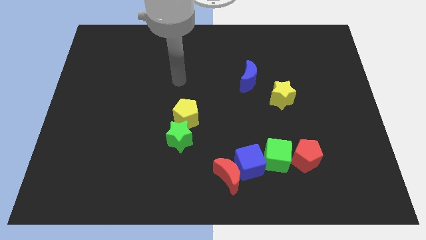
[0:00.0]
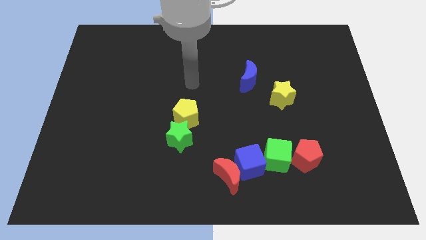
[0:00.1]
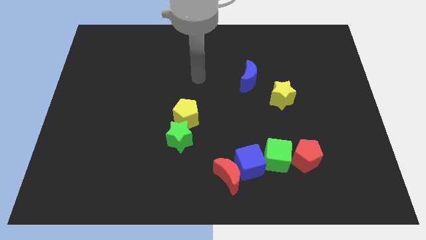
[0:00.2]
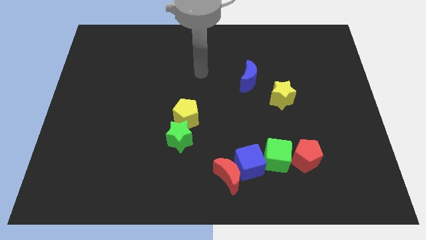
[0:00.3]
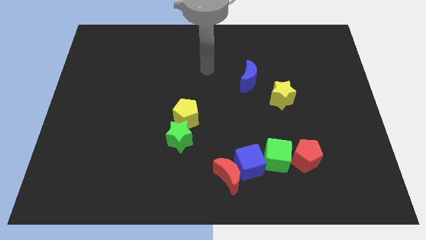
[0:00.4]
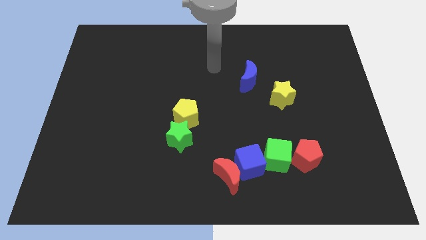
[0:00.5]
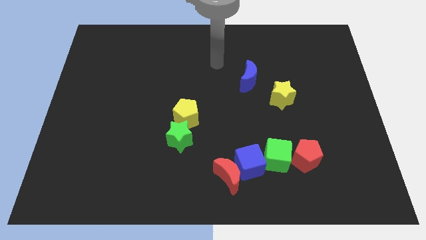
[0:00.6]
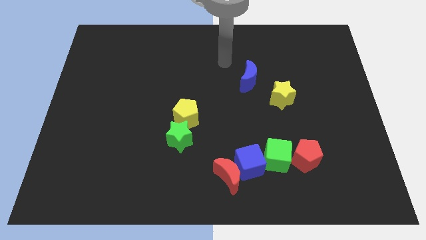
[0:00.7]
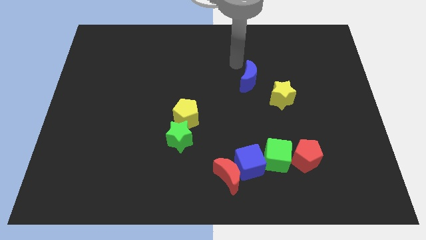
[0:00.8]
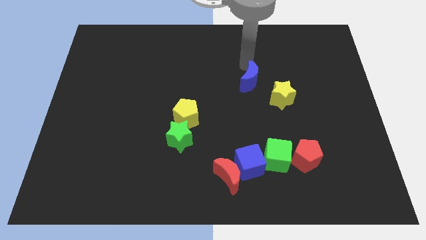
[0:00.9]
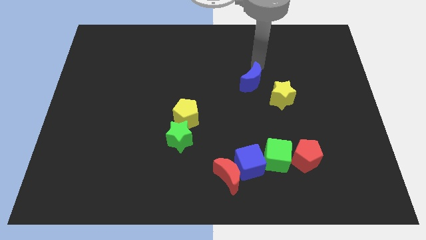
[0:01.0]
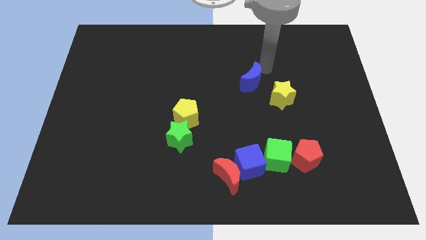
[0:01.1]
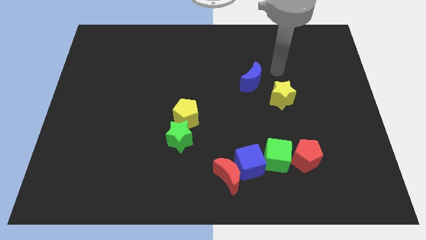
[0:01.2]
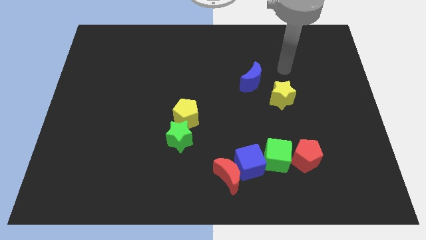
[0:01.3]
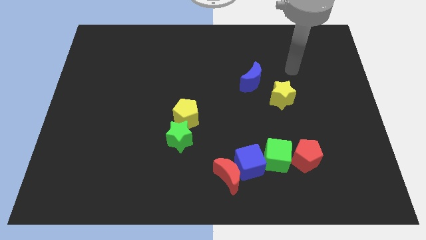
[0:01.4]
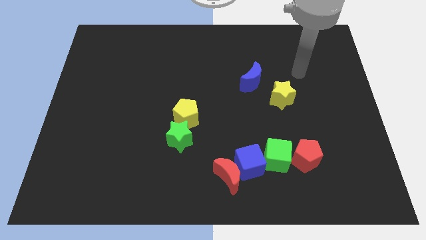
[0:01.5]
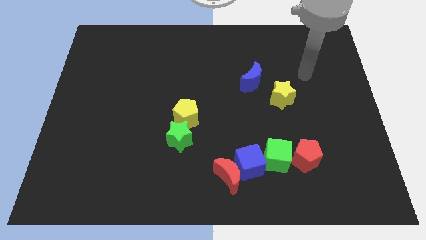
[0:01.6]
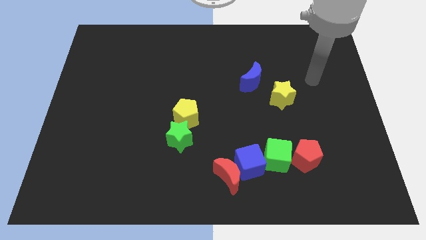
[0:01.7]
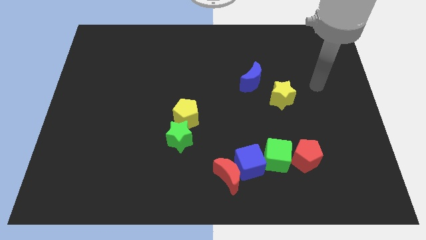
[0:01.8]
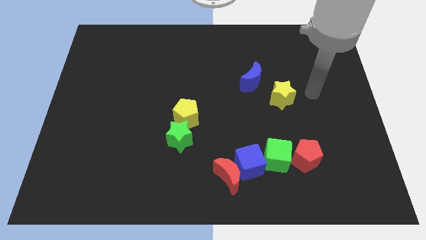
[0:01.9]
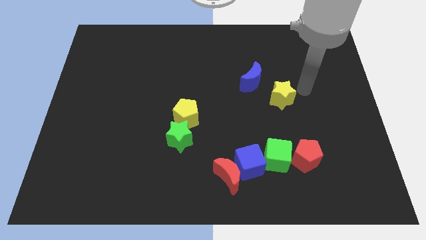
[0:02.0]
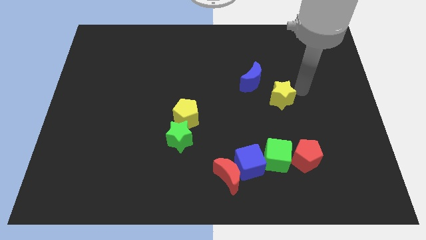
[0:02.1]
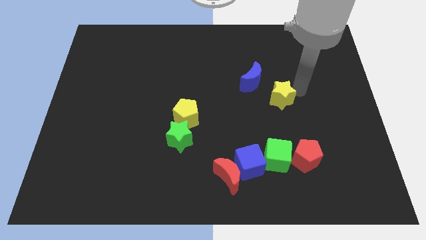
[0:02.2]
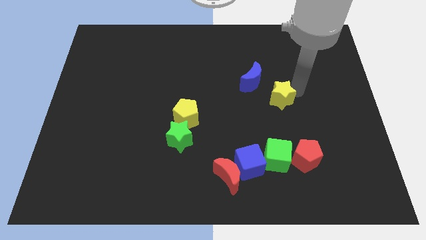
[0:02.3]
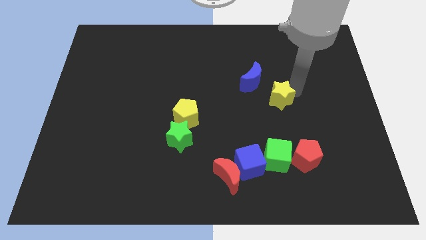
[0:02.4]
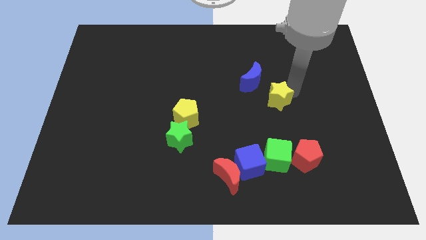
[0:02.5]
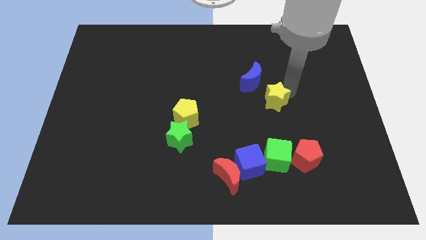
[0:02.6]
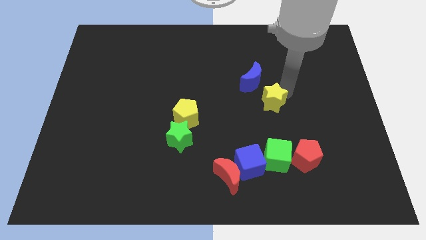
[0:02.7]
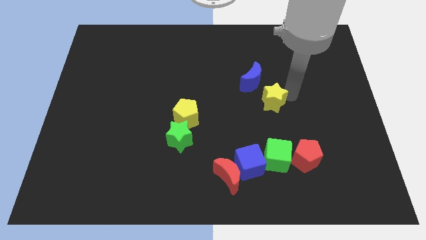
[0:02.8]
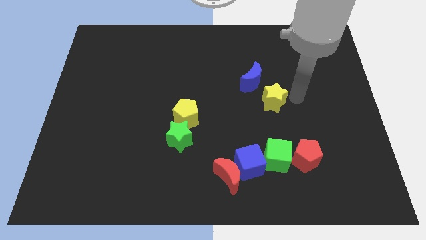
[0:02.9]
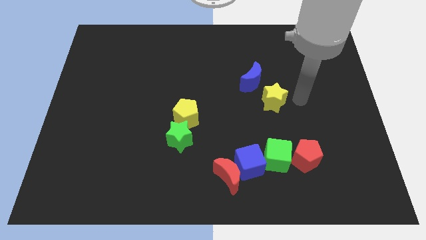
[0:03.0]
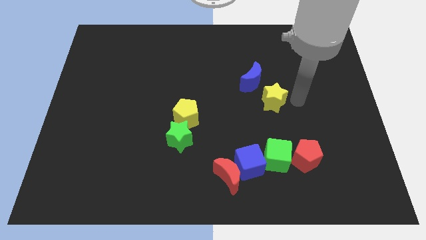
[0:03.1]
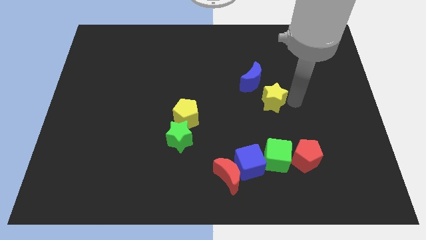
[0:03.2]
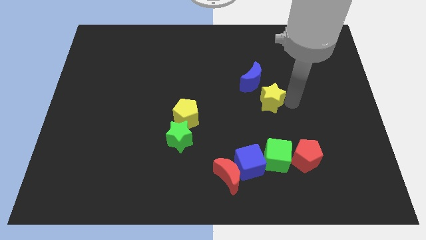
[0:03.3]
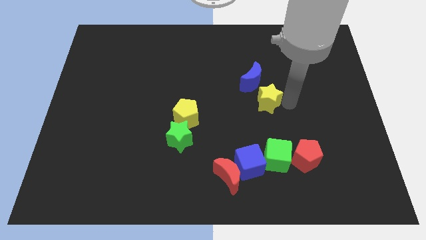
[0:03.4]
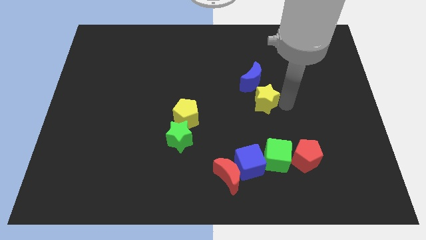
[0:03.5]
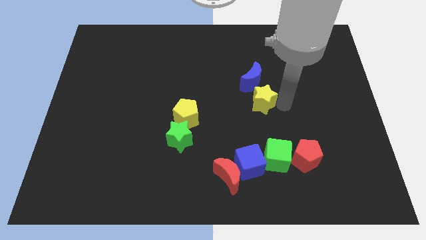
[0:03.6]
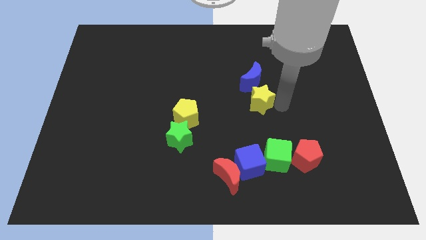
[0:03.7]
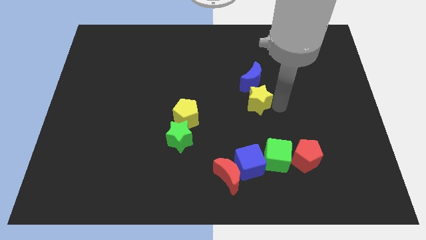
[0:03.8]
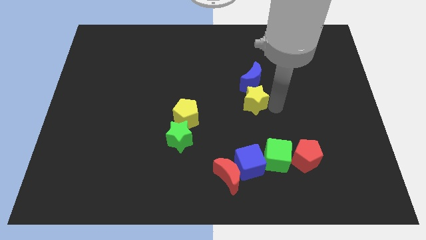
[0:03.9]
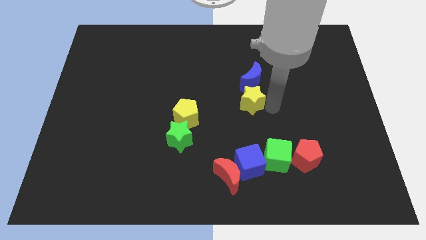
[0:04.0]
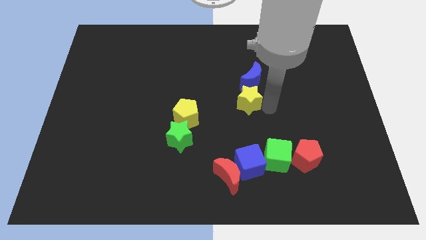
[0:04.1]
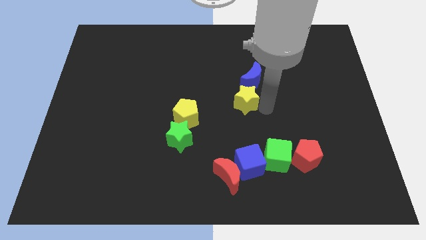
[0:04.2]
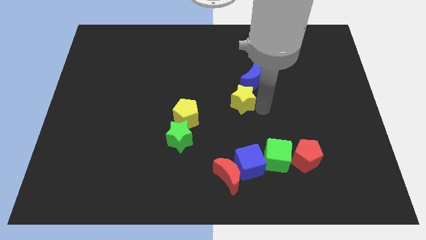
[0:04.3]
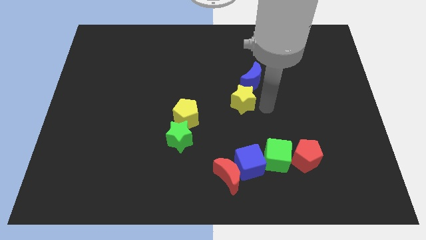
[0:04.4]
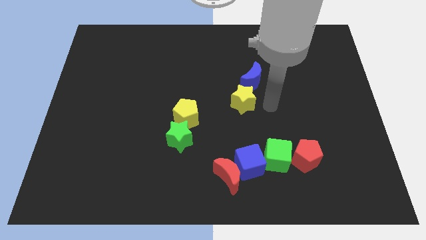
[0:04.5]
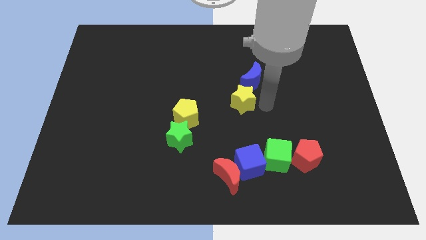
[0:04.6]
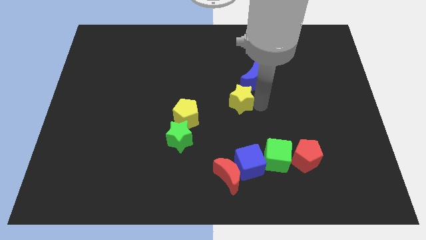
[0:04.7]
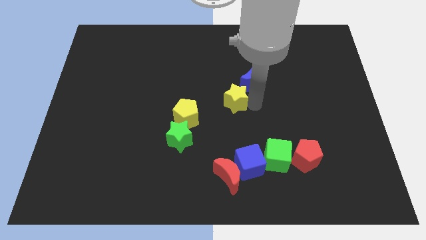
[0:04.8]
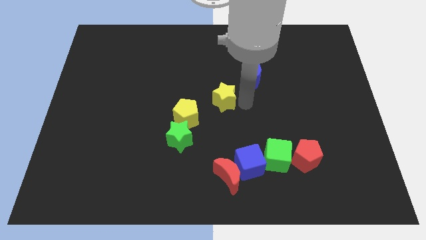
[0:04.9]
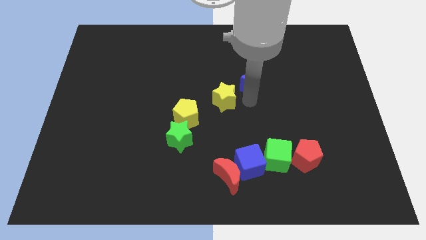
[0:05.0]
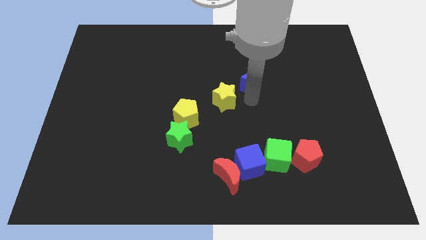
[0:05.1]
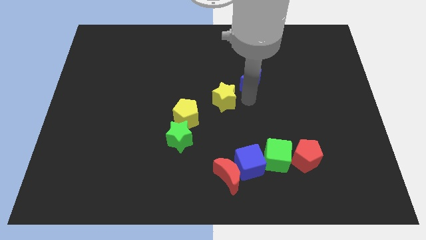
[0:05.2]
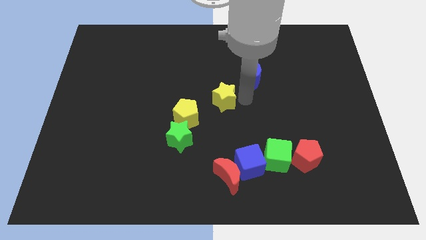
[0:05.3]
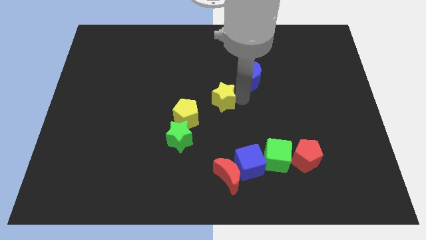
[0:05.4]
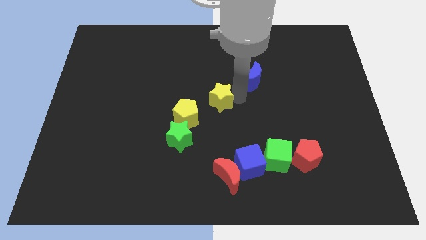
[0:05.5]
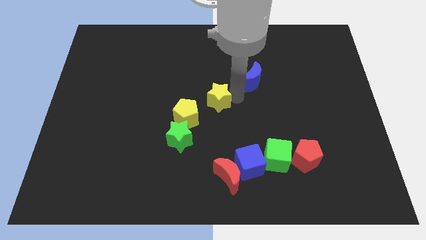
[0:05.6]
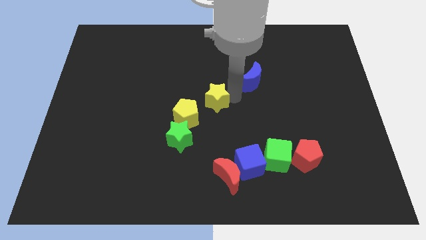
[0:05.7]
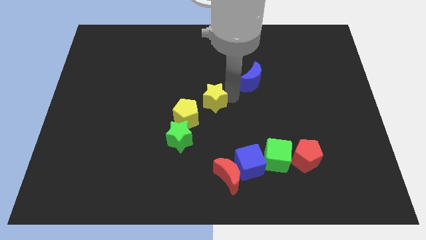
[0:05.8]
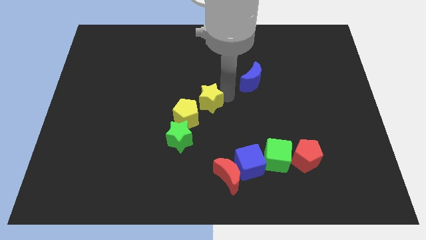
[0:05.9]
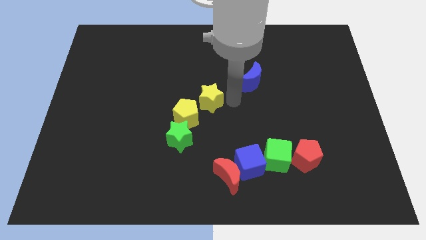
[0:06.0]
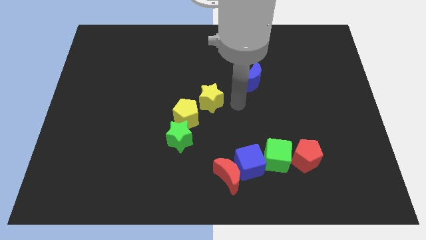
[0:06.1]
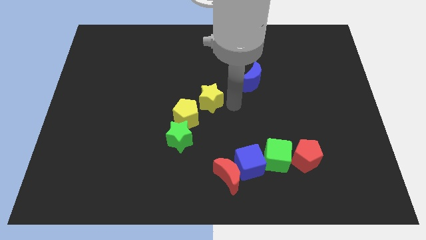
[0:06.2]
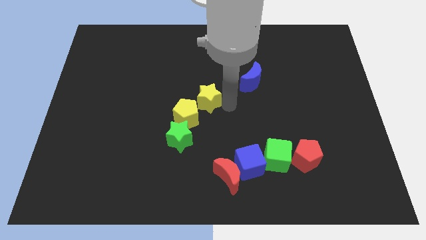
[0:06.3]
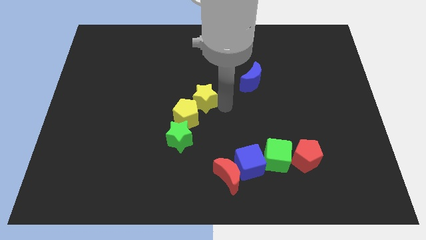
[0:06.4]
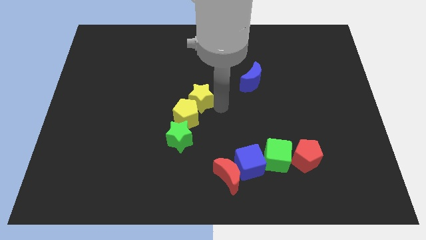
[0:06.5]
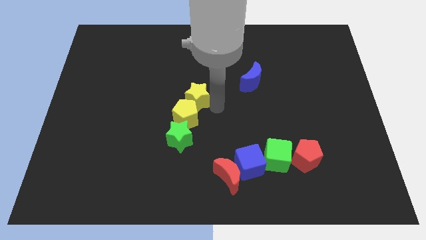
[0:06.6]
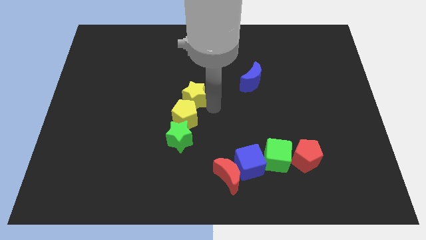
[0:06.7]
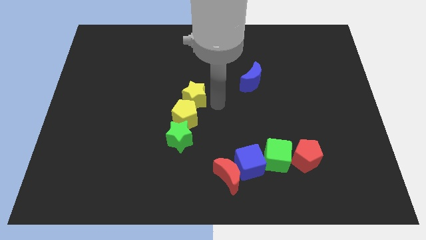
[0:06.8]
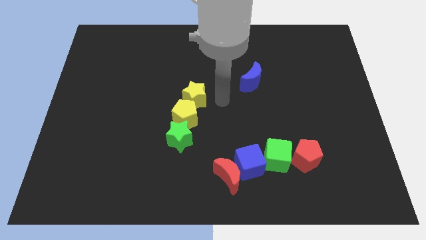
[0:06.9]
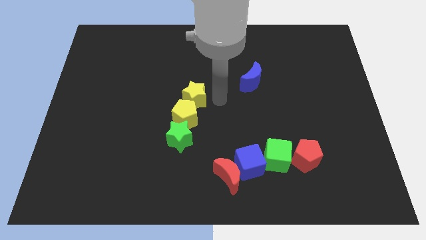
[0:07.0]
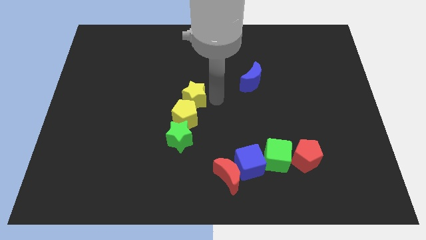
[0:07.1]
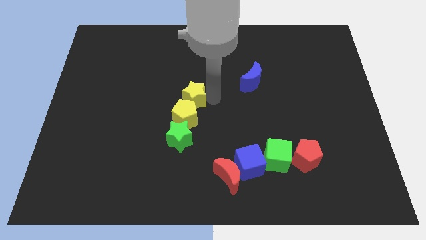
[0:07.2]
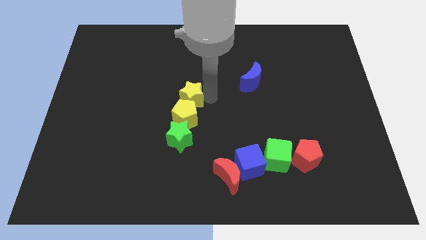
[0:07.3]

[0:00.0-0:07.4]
push the yellow star to the top left side of the yellow pentagon
